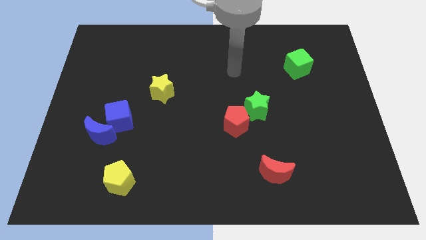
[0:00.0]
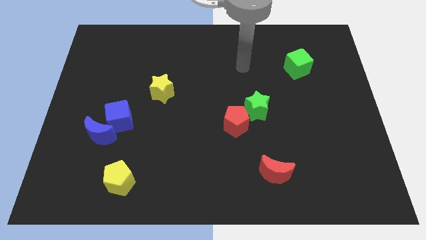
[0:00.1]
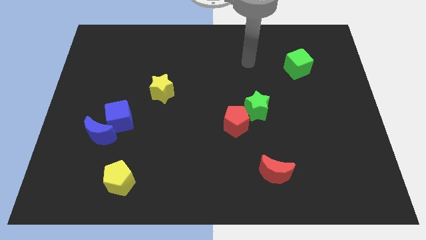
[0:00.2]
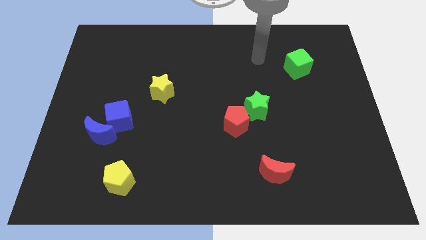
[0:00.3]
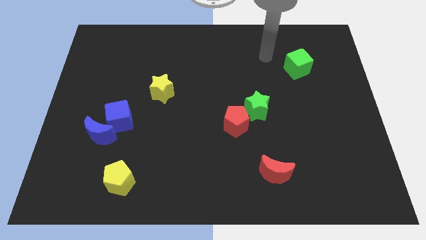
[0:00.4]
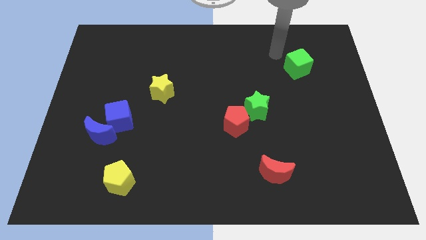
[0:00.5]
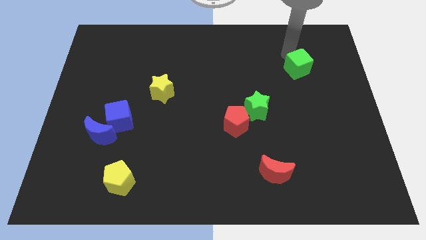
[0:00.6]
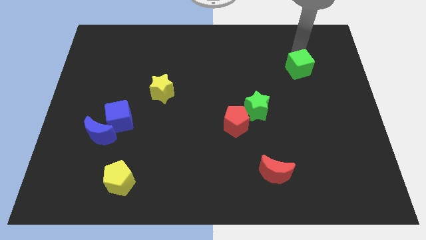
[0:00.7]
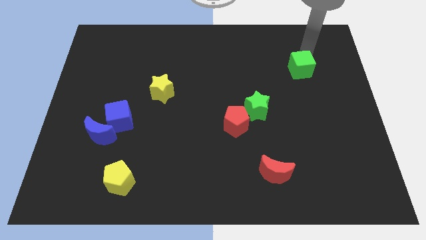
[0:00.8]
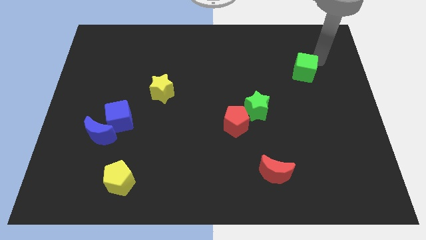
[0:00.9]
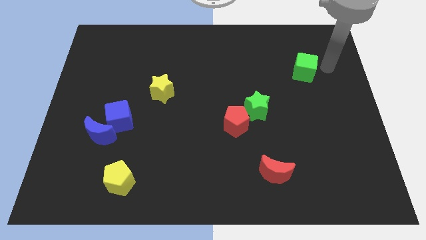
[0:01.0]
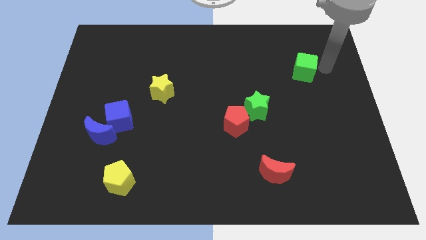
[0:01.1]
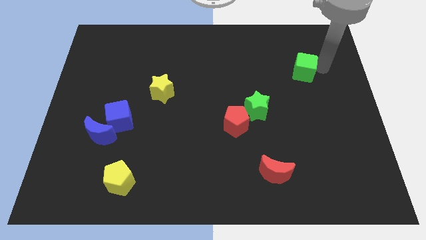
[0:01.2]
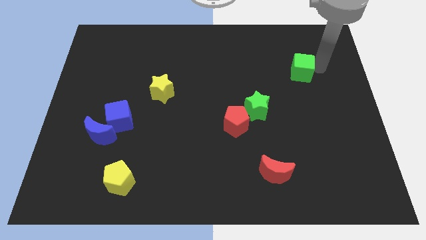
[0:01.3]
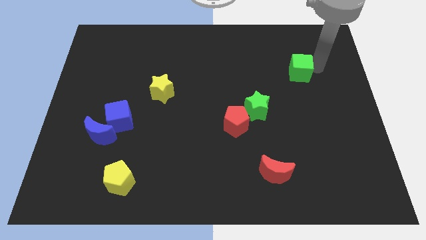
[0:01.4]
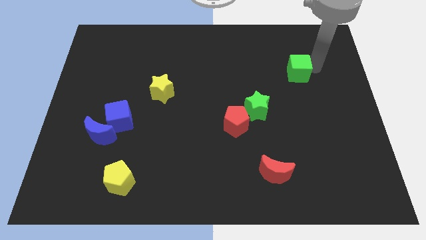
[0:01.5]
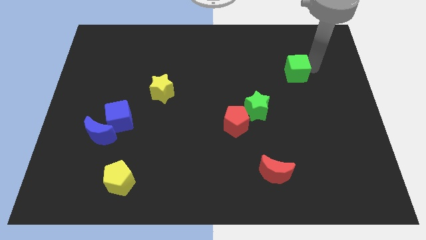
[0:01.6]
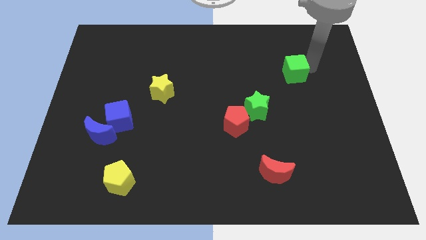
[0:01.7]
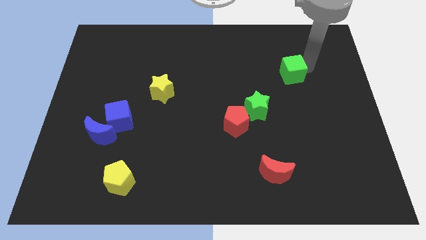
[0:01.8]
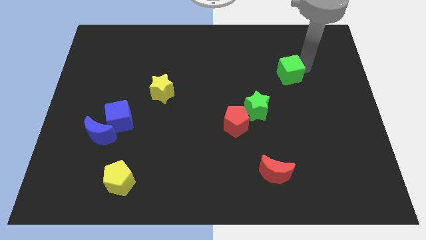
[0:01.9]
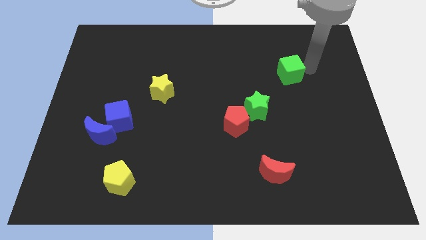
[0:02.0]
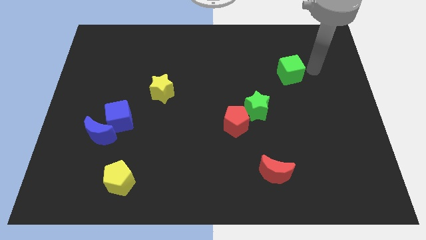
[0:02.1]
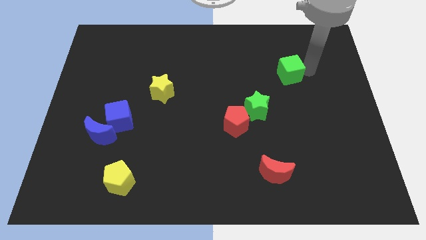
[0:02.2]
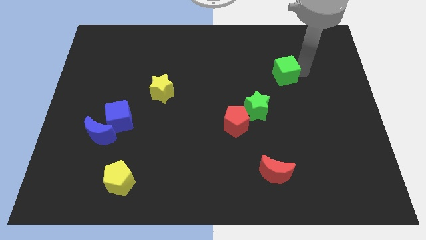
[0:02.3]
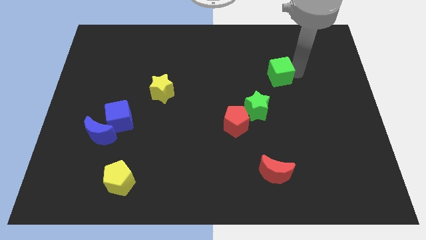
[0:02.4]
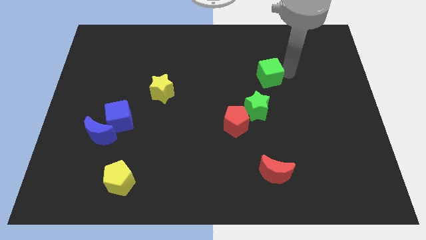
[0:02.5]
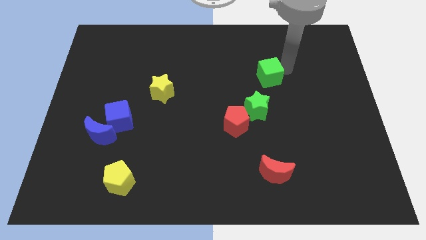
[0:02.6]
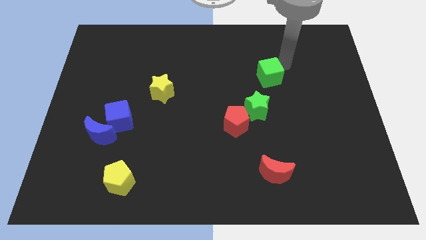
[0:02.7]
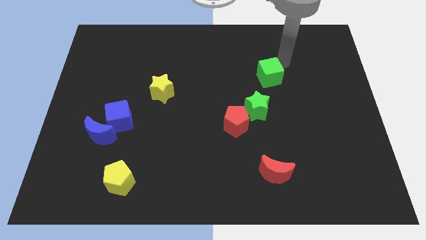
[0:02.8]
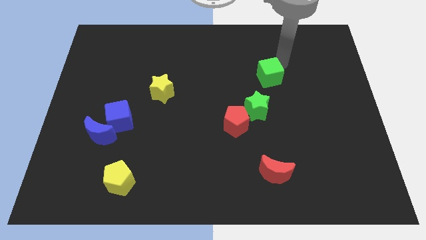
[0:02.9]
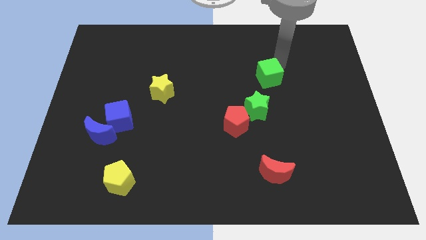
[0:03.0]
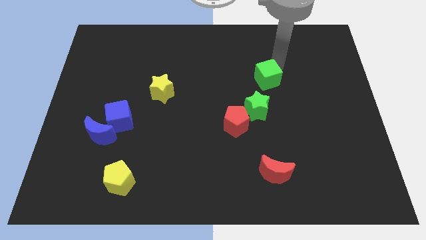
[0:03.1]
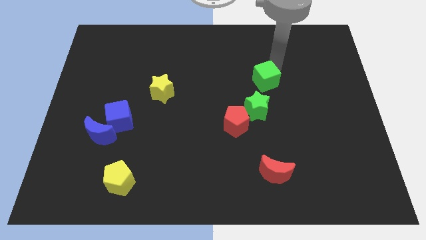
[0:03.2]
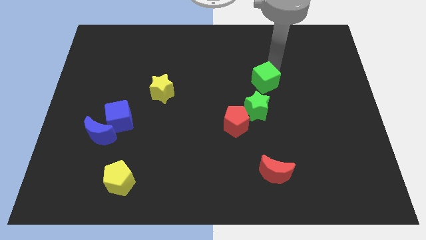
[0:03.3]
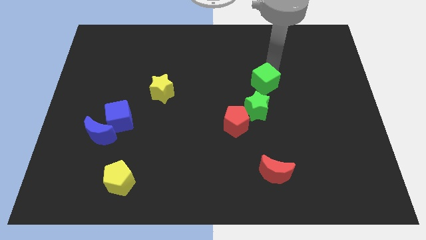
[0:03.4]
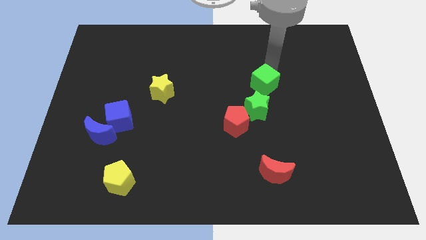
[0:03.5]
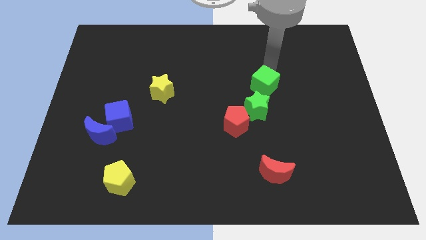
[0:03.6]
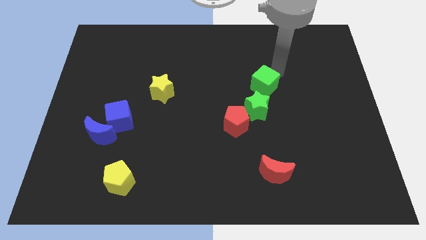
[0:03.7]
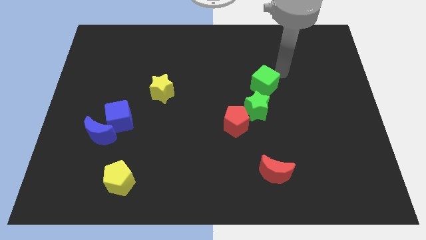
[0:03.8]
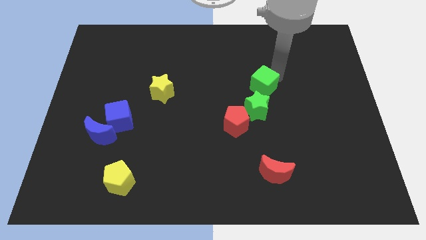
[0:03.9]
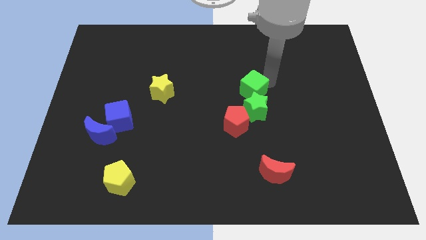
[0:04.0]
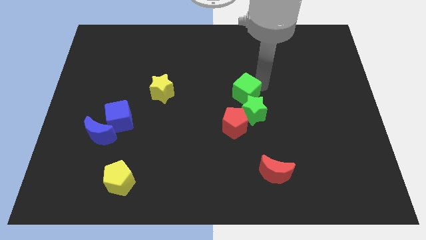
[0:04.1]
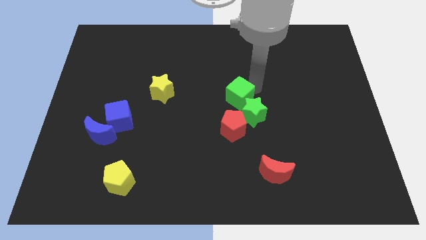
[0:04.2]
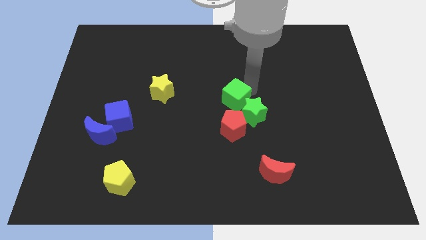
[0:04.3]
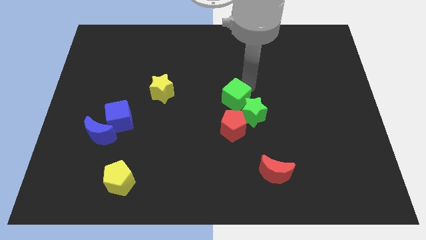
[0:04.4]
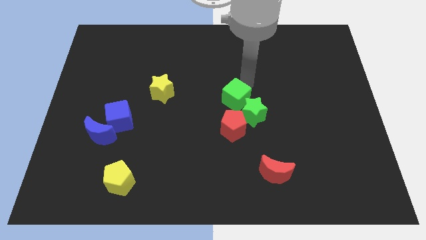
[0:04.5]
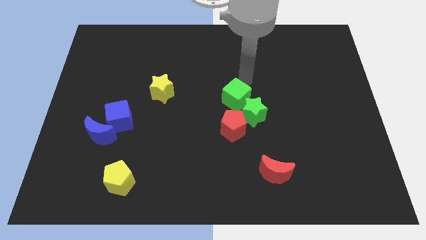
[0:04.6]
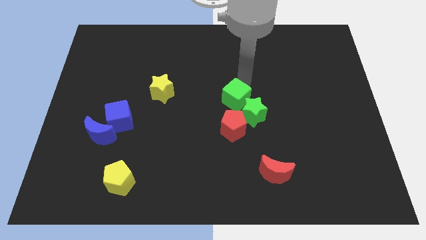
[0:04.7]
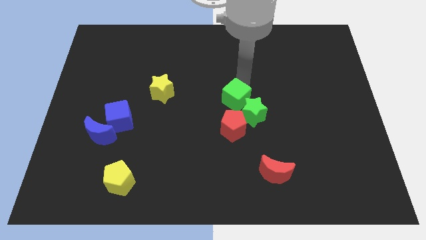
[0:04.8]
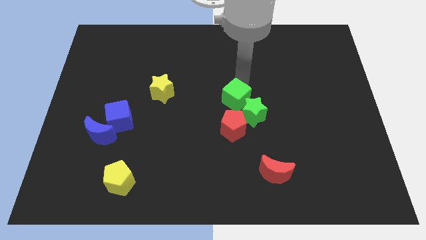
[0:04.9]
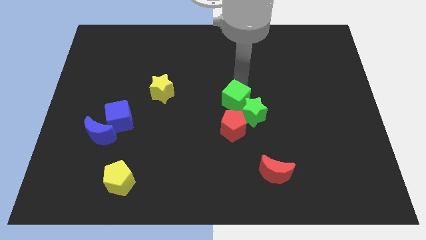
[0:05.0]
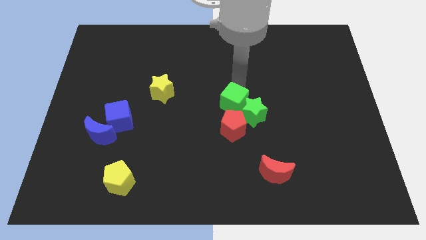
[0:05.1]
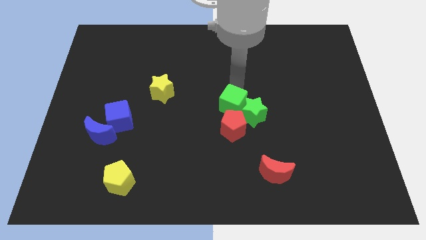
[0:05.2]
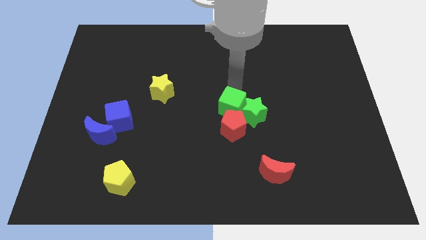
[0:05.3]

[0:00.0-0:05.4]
slide the green cube next to the red pentagon

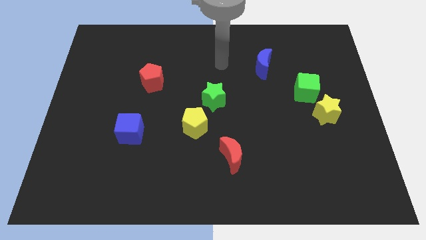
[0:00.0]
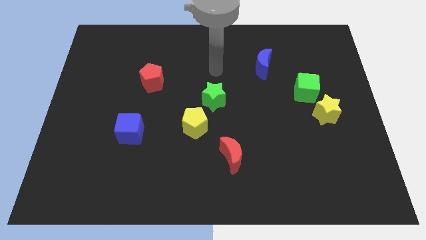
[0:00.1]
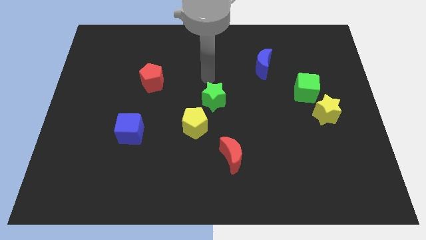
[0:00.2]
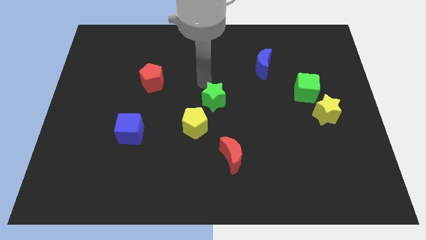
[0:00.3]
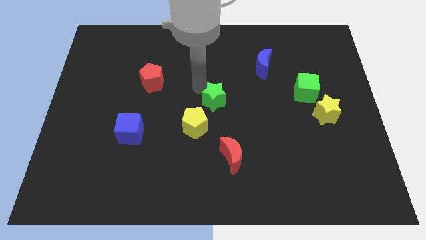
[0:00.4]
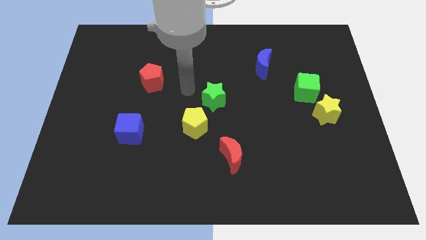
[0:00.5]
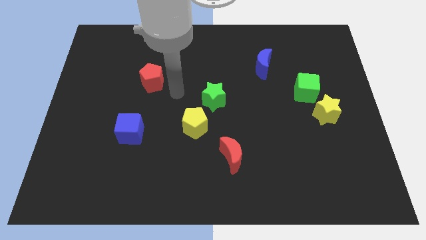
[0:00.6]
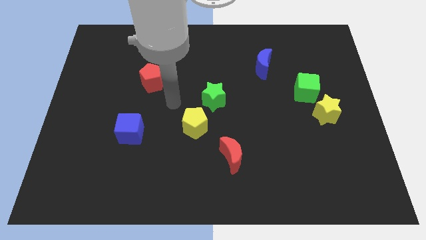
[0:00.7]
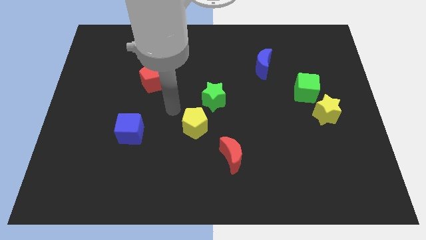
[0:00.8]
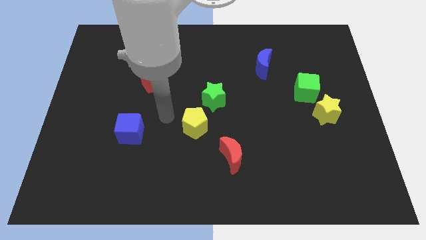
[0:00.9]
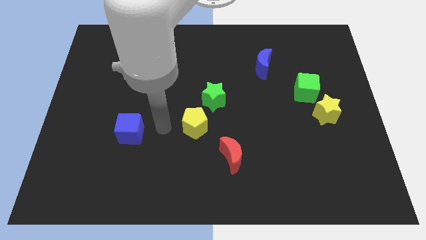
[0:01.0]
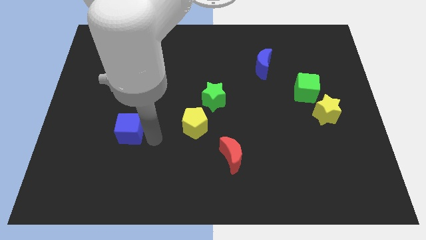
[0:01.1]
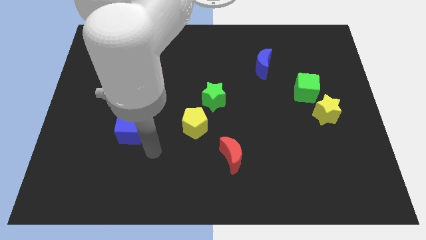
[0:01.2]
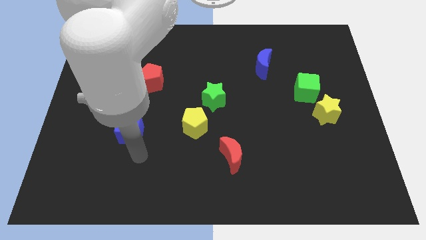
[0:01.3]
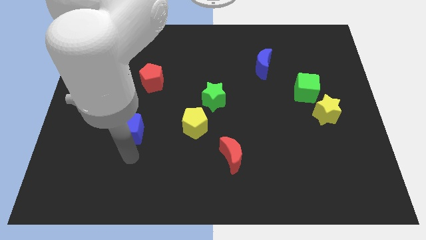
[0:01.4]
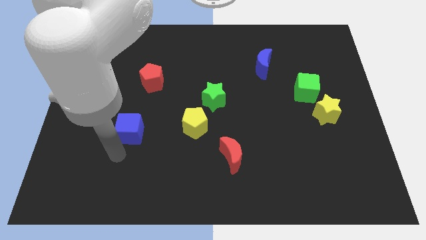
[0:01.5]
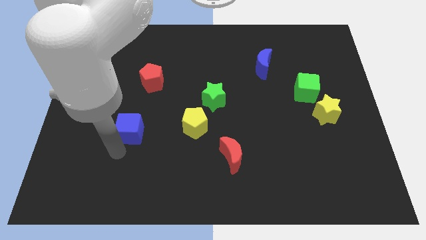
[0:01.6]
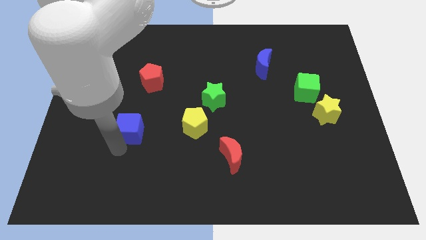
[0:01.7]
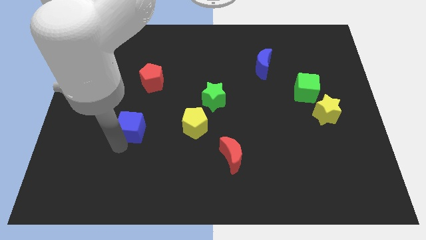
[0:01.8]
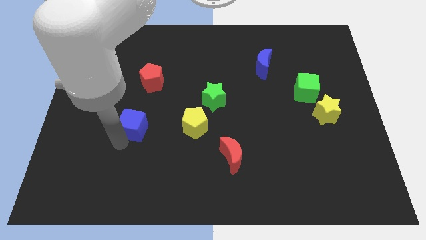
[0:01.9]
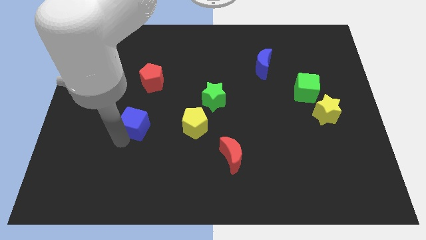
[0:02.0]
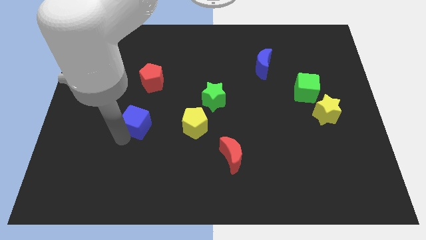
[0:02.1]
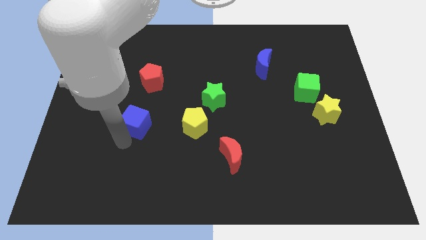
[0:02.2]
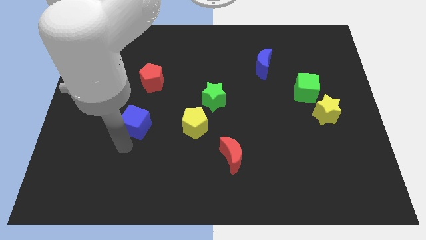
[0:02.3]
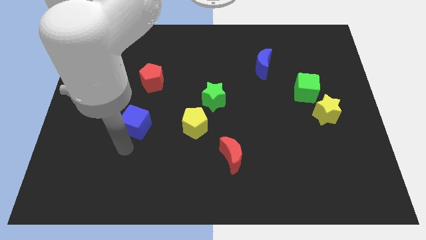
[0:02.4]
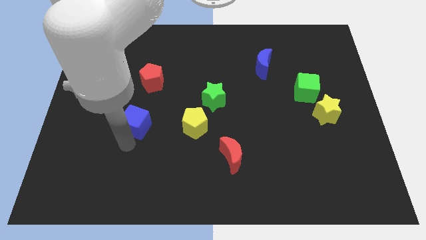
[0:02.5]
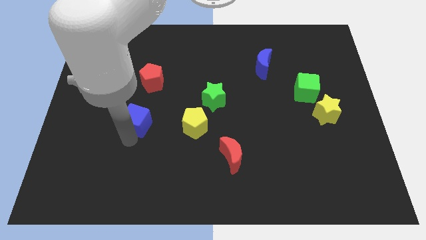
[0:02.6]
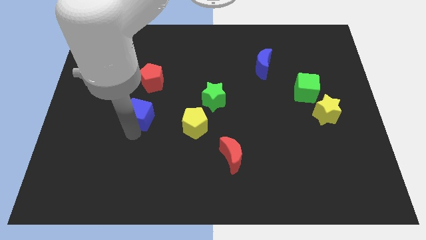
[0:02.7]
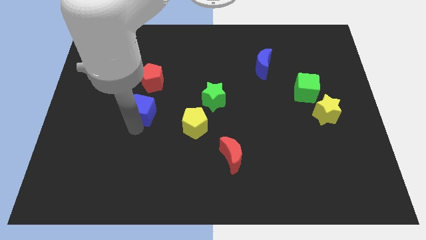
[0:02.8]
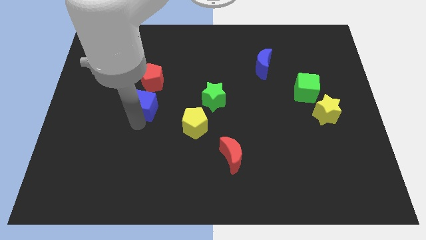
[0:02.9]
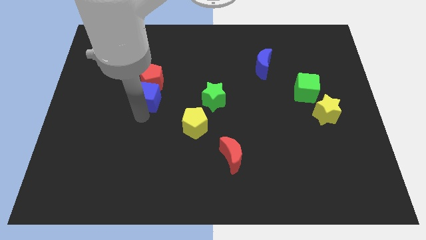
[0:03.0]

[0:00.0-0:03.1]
push the blue cube to the red pentagon
